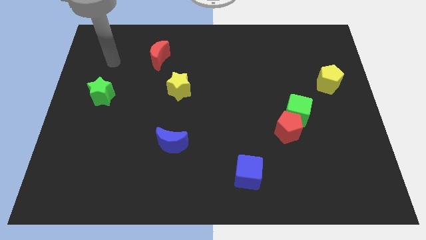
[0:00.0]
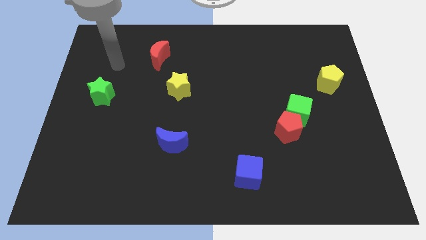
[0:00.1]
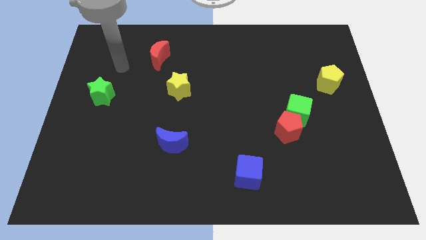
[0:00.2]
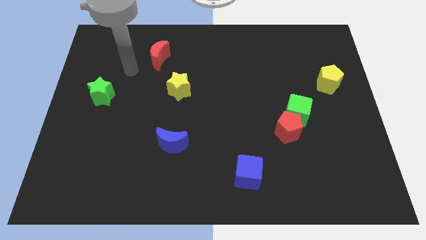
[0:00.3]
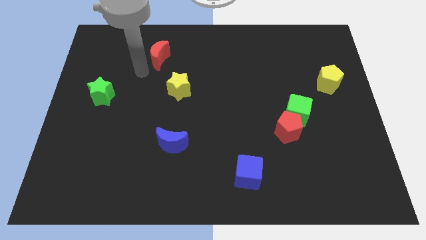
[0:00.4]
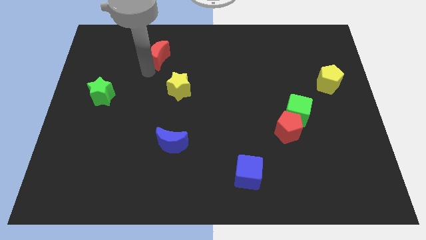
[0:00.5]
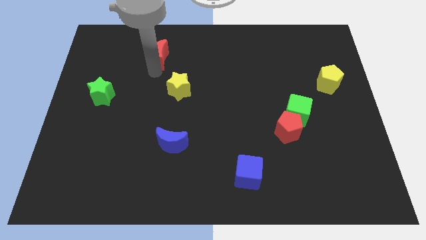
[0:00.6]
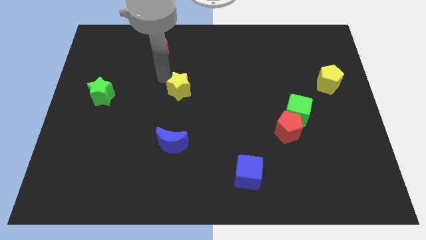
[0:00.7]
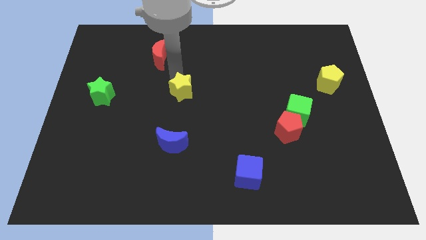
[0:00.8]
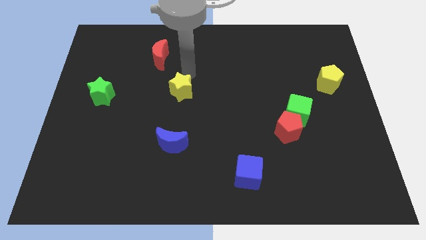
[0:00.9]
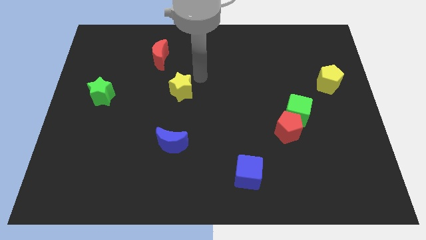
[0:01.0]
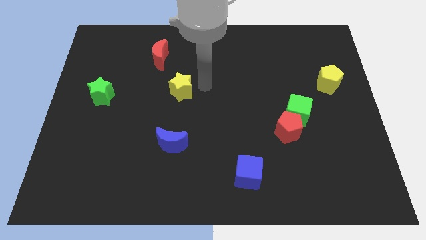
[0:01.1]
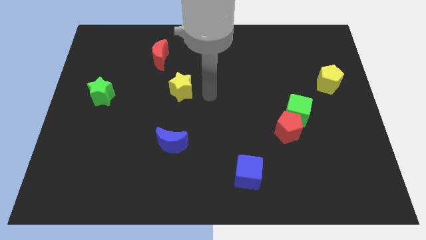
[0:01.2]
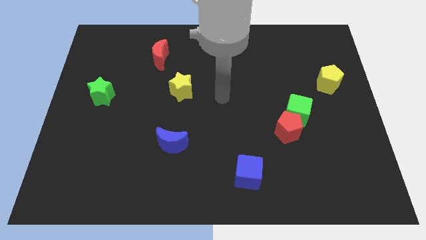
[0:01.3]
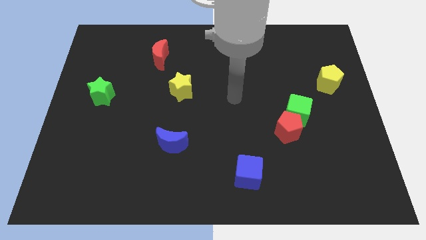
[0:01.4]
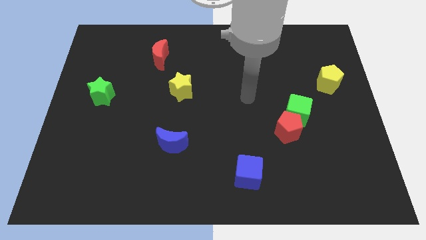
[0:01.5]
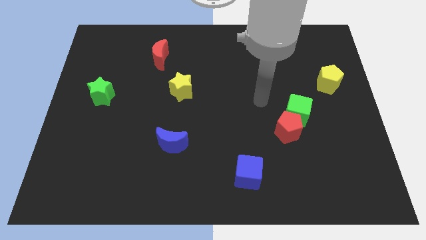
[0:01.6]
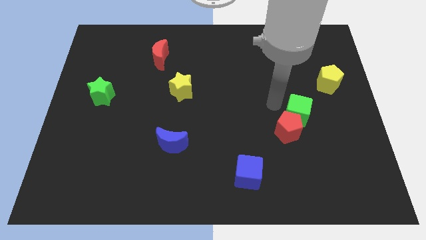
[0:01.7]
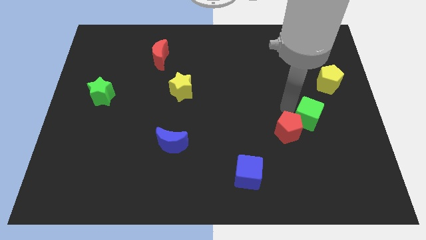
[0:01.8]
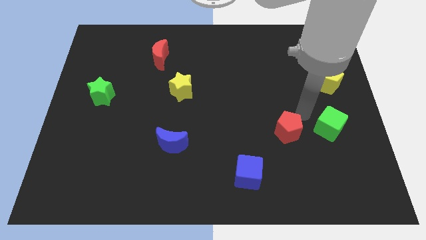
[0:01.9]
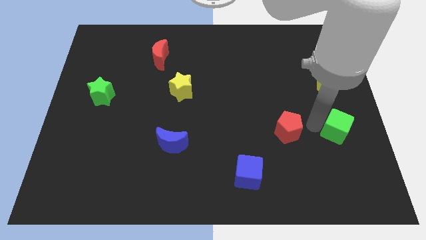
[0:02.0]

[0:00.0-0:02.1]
move the red pentagon away from the green cube

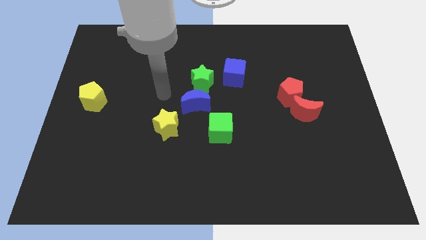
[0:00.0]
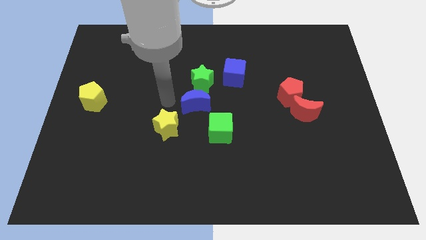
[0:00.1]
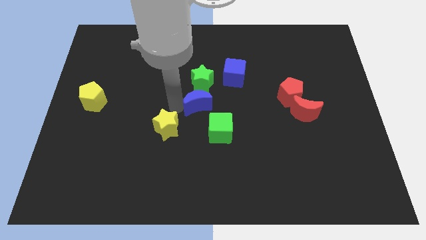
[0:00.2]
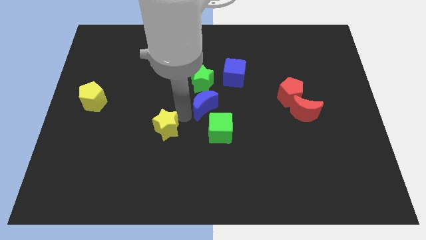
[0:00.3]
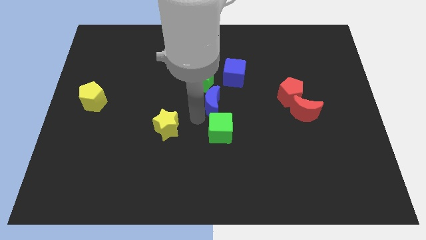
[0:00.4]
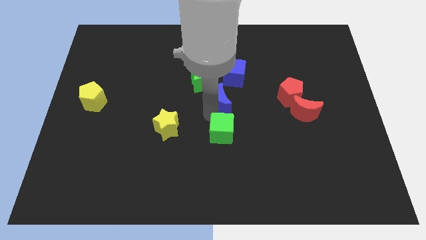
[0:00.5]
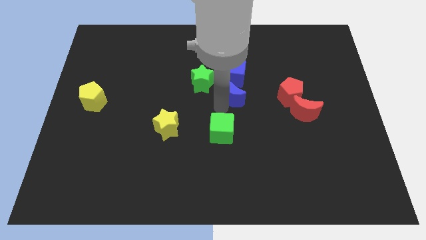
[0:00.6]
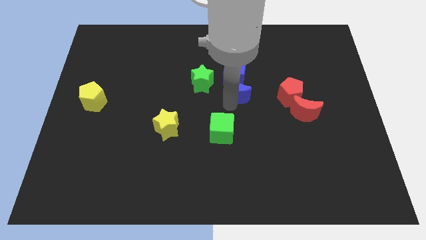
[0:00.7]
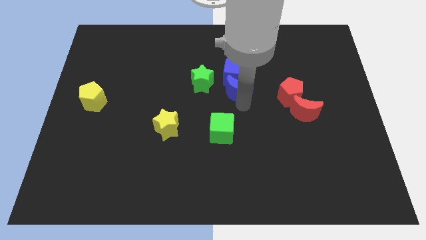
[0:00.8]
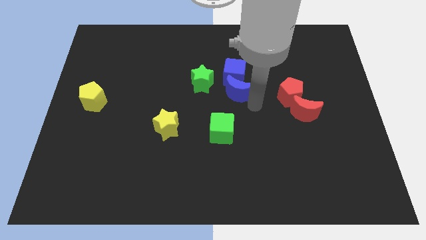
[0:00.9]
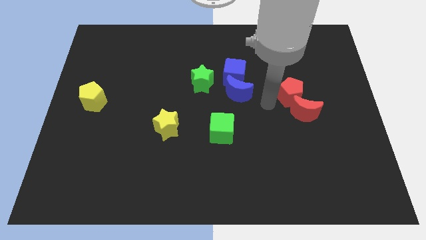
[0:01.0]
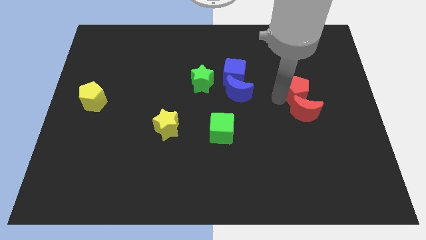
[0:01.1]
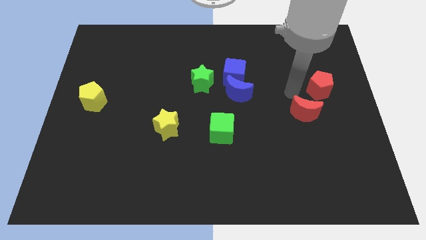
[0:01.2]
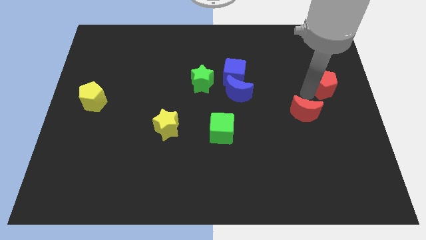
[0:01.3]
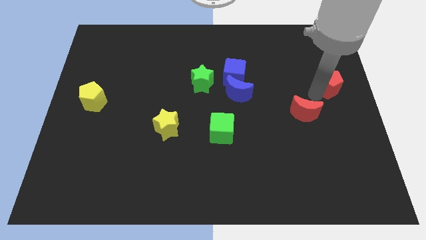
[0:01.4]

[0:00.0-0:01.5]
move the red moon away from the red pentagon

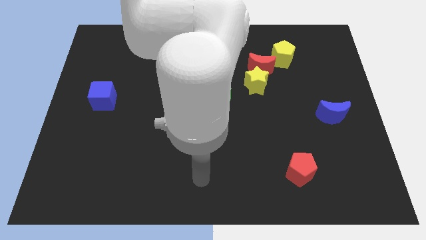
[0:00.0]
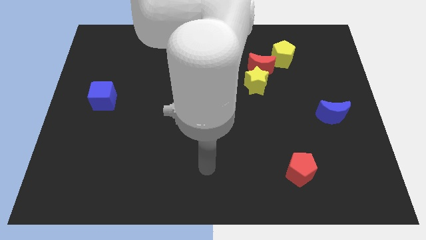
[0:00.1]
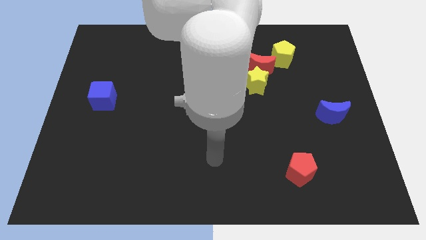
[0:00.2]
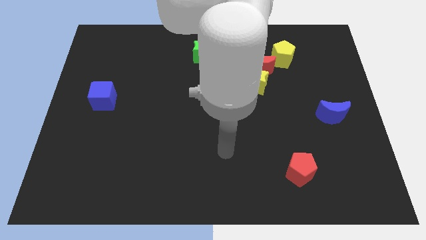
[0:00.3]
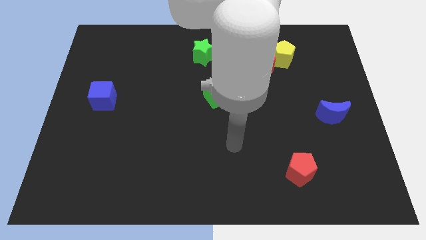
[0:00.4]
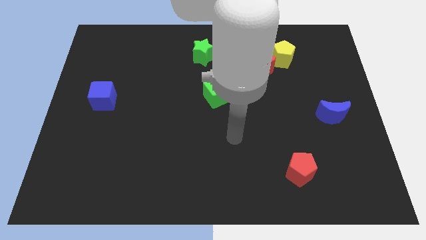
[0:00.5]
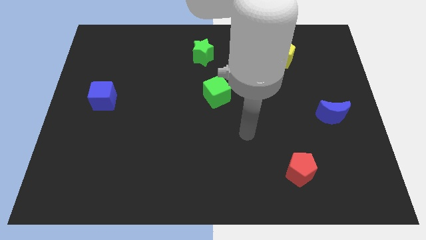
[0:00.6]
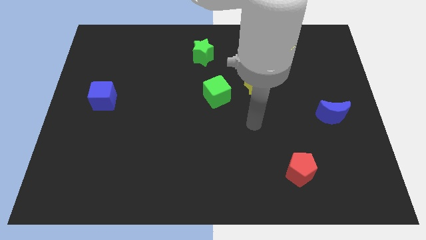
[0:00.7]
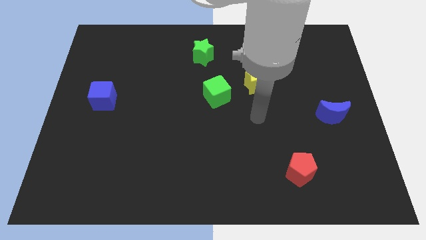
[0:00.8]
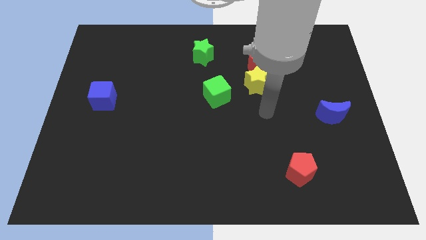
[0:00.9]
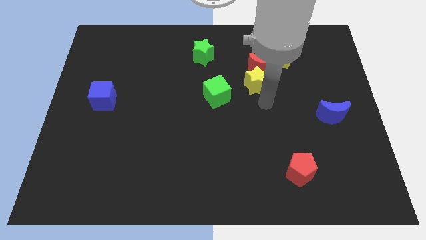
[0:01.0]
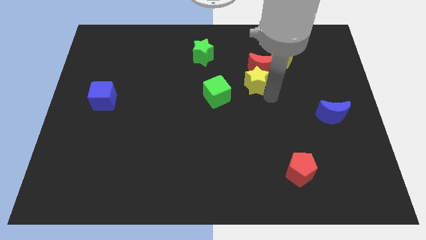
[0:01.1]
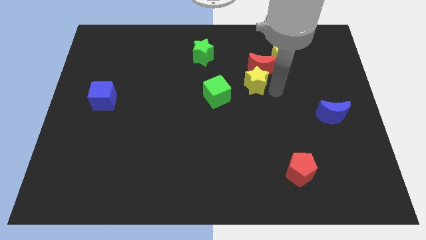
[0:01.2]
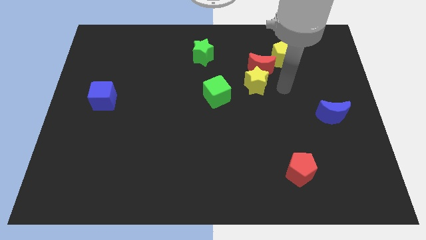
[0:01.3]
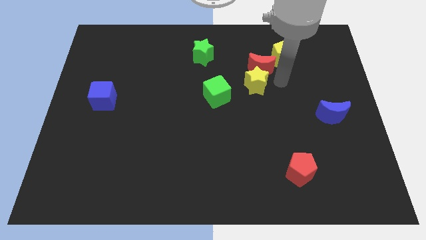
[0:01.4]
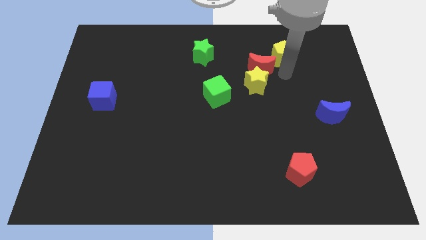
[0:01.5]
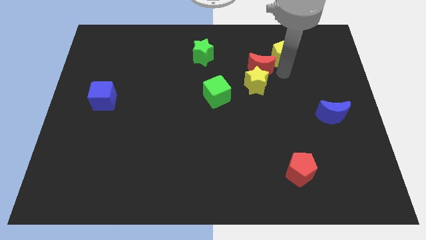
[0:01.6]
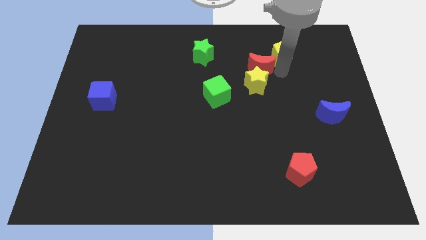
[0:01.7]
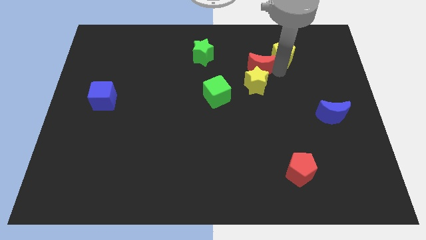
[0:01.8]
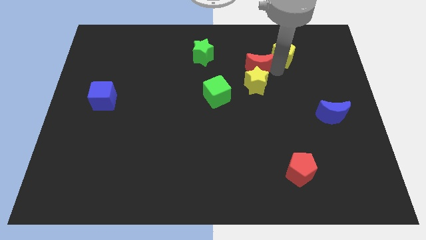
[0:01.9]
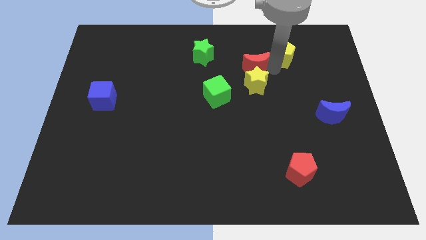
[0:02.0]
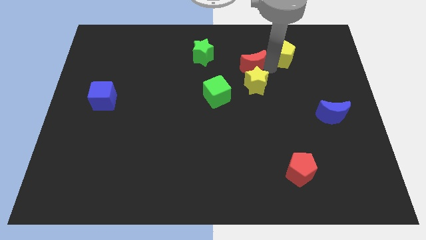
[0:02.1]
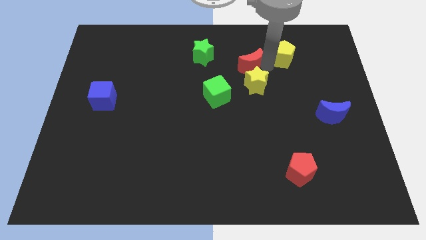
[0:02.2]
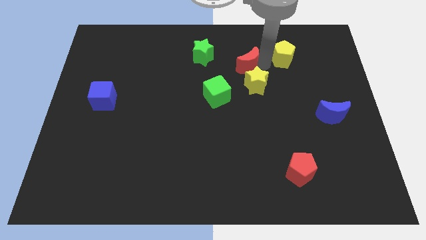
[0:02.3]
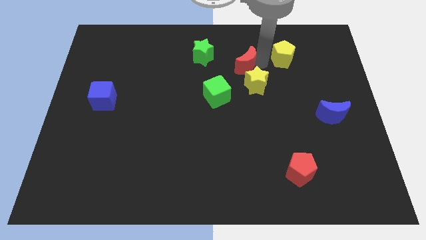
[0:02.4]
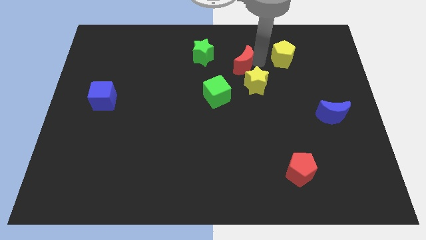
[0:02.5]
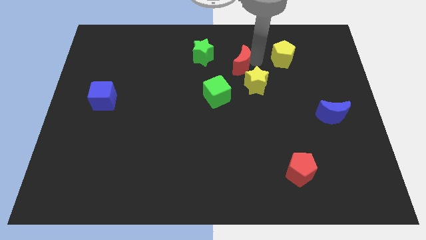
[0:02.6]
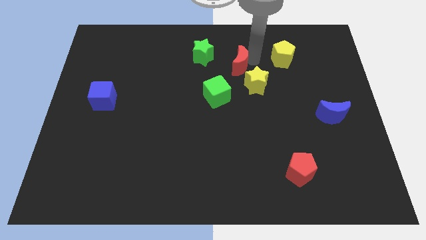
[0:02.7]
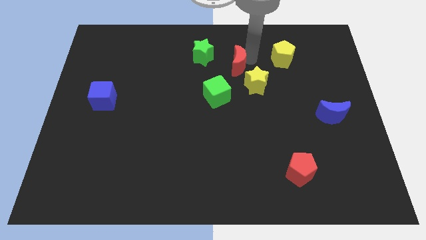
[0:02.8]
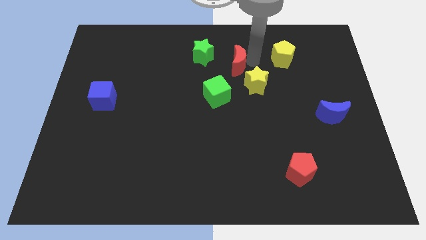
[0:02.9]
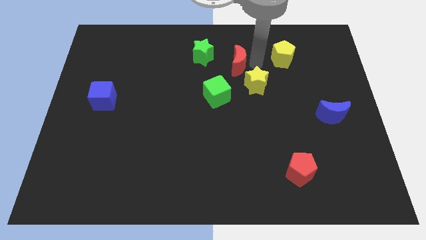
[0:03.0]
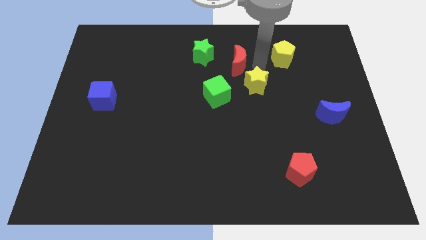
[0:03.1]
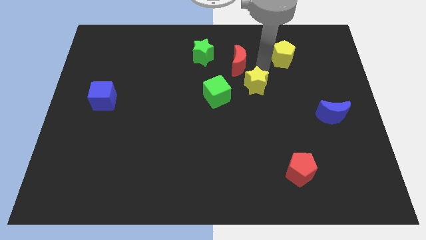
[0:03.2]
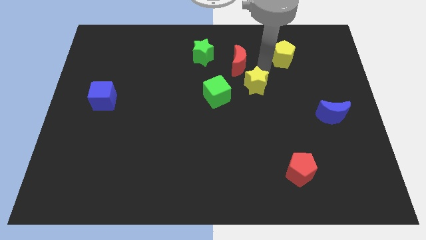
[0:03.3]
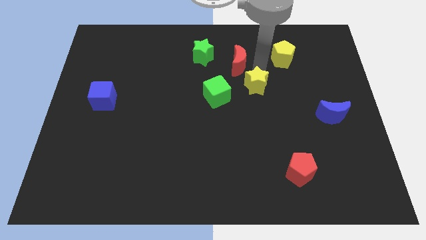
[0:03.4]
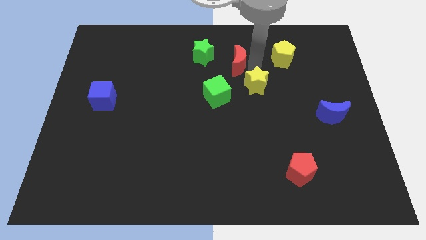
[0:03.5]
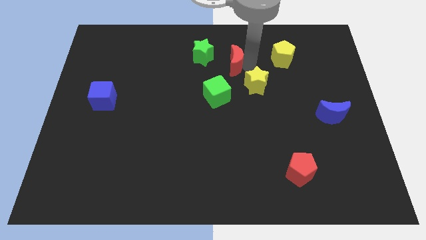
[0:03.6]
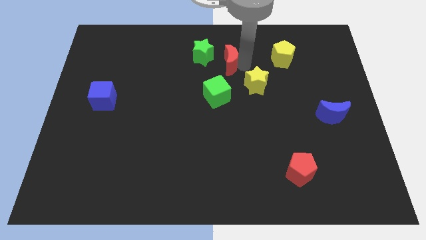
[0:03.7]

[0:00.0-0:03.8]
separate the red moon from the yellow star and yellow pentagon

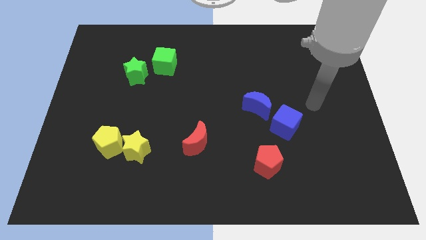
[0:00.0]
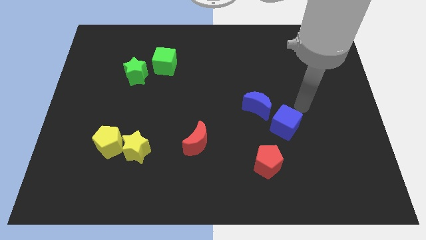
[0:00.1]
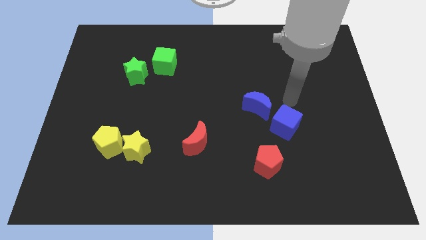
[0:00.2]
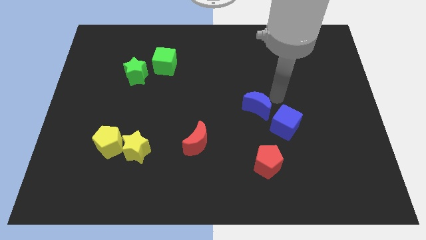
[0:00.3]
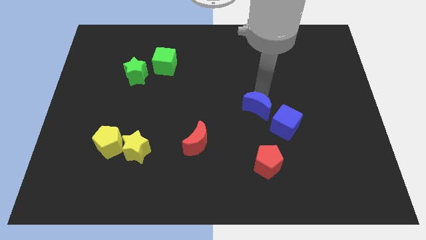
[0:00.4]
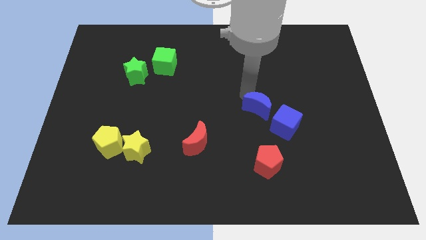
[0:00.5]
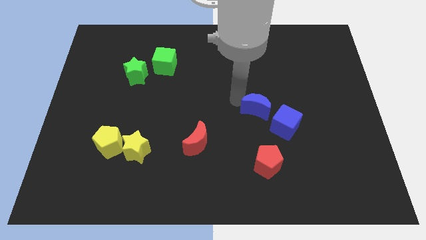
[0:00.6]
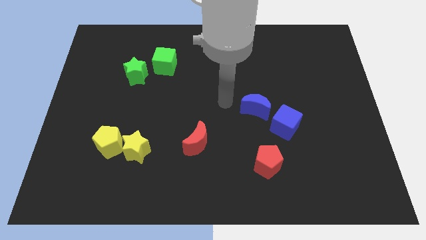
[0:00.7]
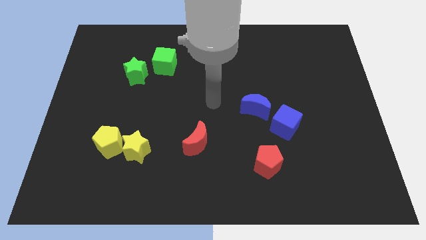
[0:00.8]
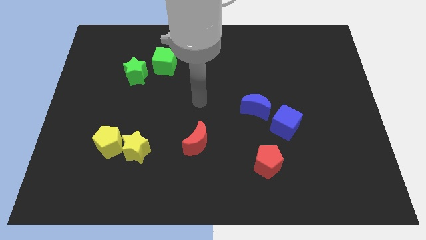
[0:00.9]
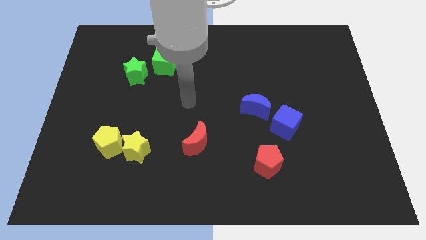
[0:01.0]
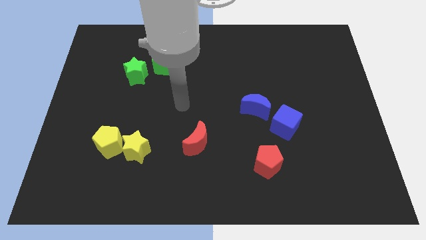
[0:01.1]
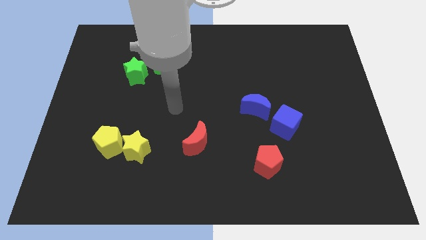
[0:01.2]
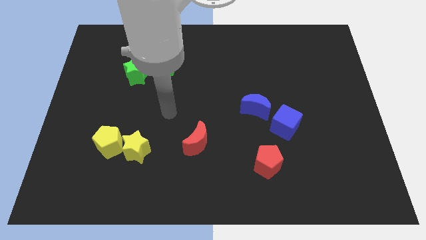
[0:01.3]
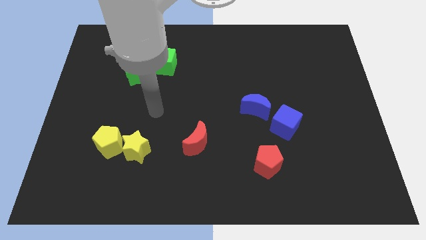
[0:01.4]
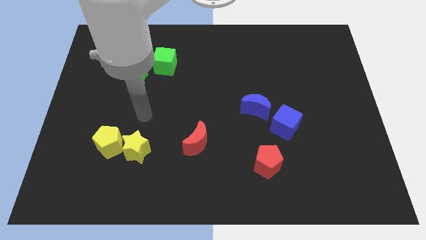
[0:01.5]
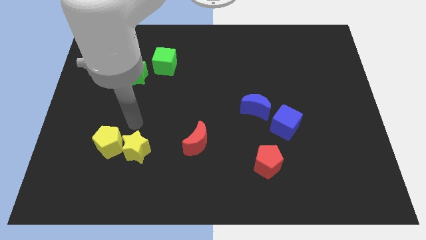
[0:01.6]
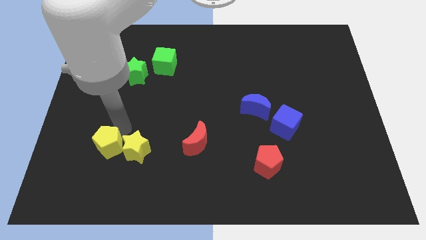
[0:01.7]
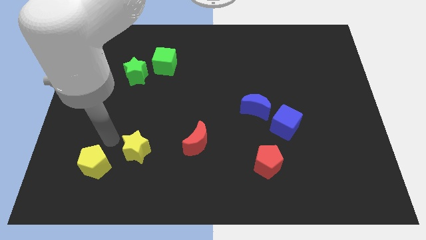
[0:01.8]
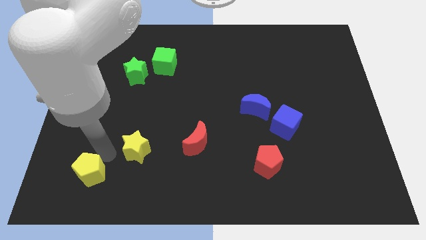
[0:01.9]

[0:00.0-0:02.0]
separate the yellow star from the yellow pentagon
